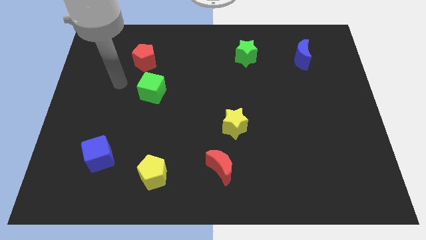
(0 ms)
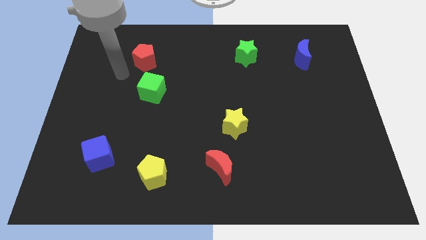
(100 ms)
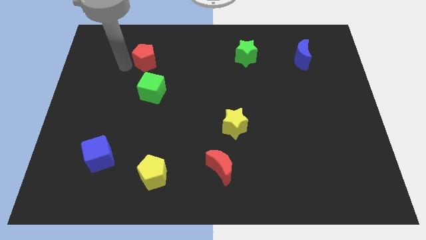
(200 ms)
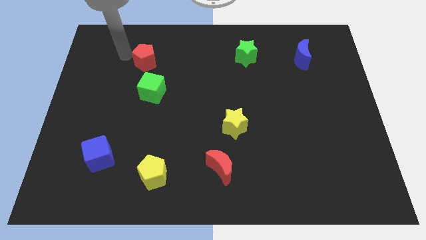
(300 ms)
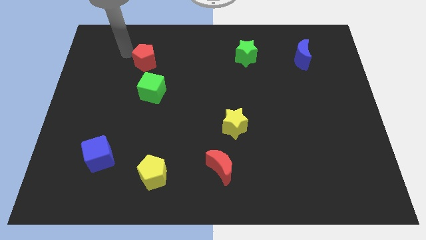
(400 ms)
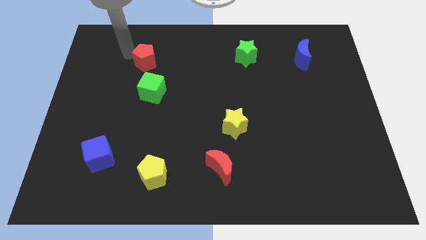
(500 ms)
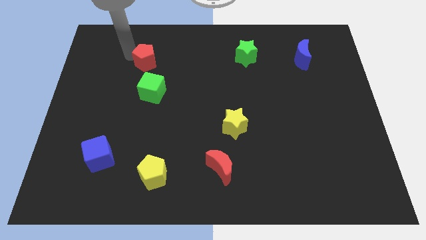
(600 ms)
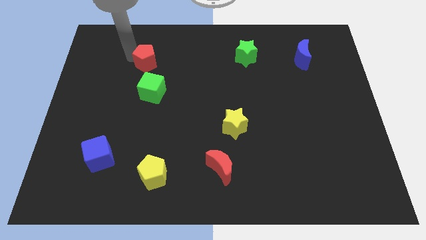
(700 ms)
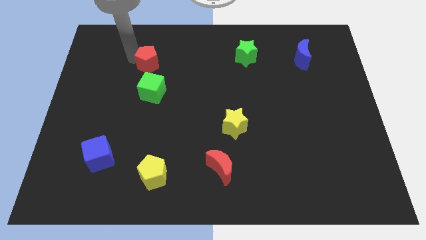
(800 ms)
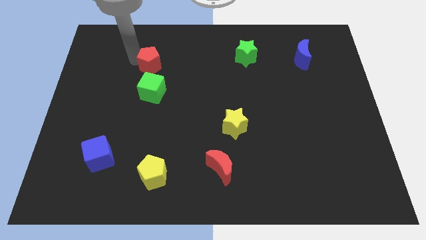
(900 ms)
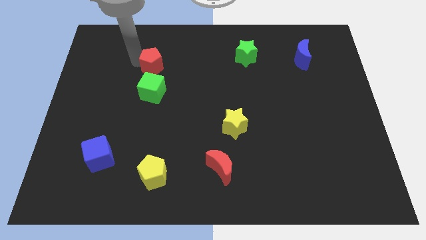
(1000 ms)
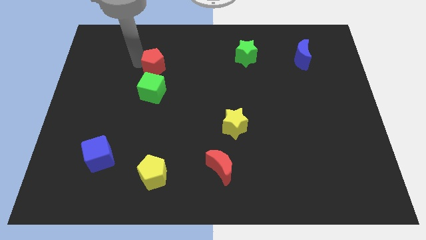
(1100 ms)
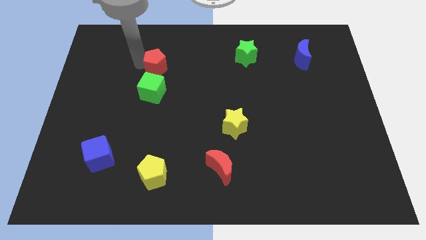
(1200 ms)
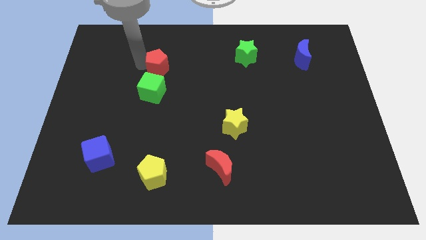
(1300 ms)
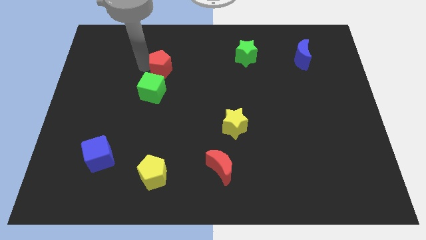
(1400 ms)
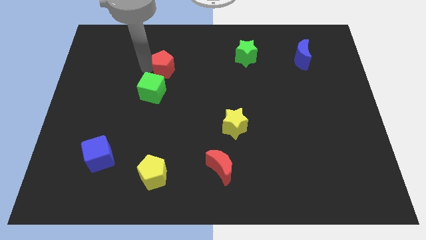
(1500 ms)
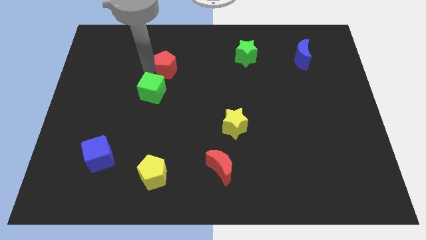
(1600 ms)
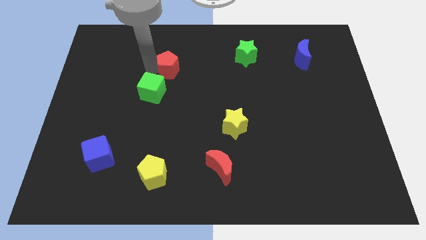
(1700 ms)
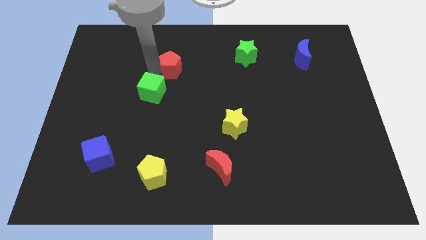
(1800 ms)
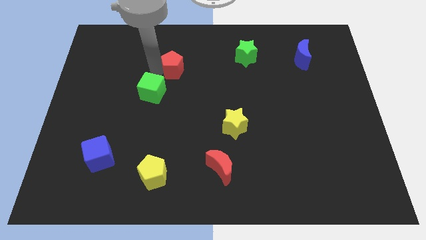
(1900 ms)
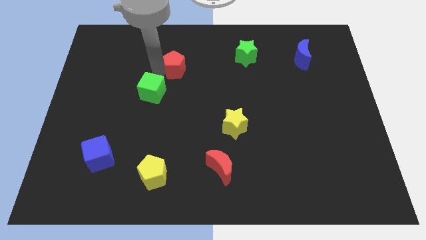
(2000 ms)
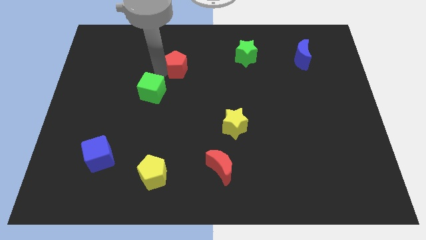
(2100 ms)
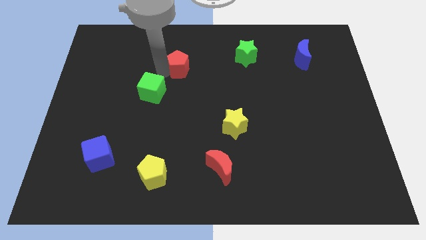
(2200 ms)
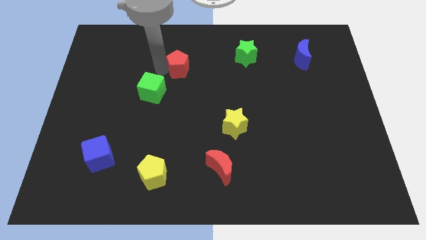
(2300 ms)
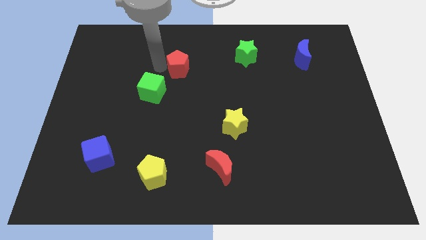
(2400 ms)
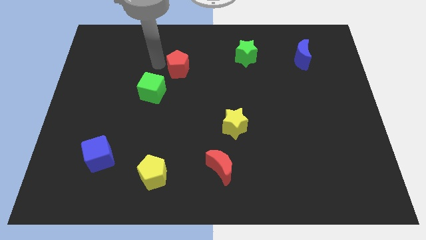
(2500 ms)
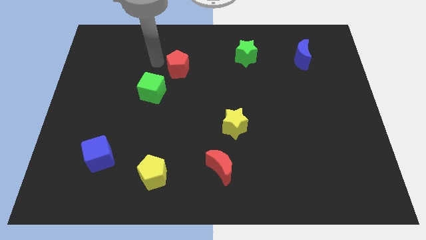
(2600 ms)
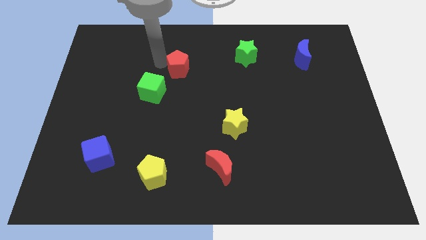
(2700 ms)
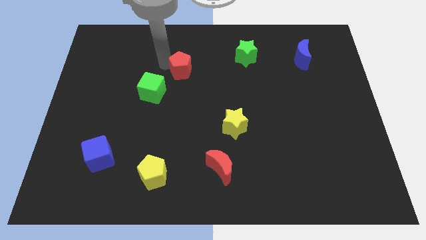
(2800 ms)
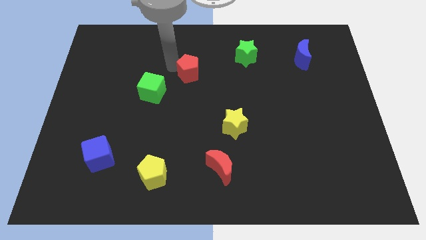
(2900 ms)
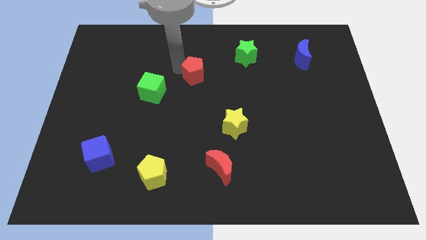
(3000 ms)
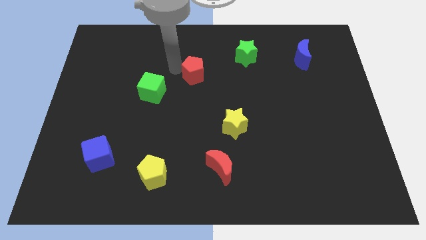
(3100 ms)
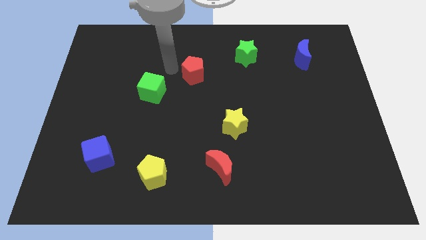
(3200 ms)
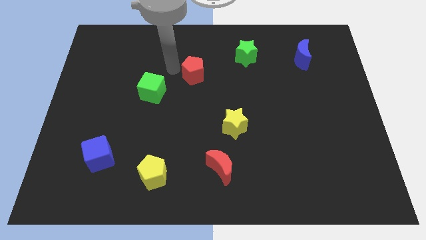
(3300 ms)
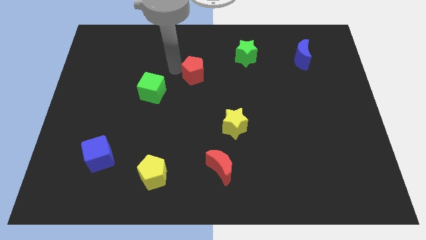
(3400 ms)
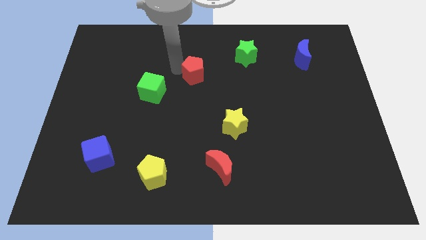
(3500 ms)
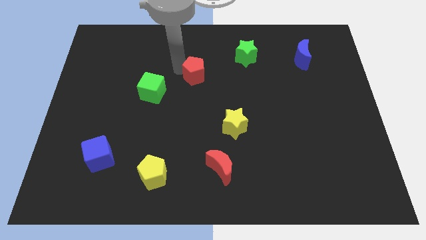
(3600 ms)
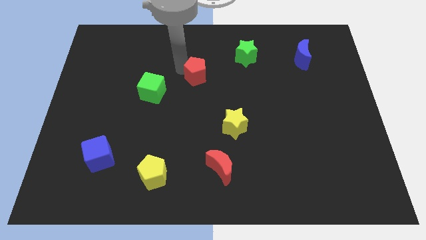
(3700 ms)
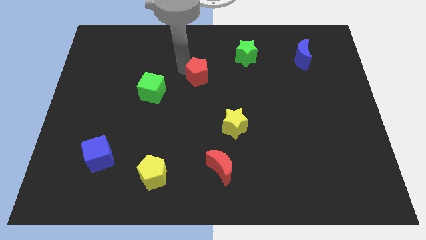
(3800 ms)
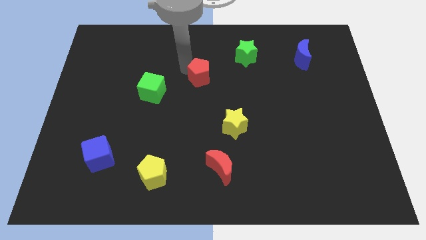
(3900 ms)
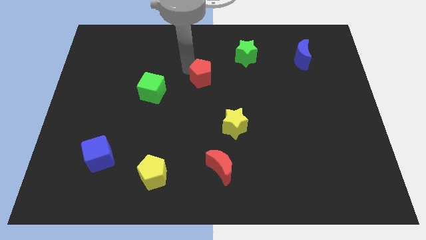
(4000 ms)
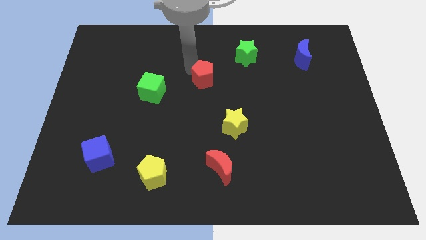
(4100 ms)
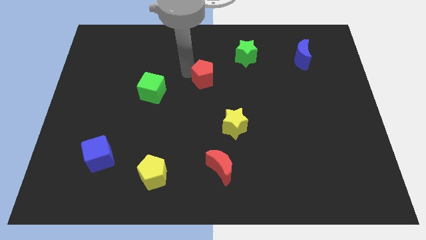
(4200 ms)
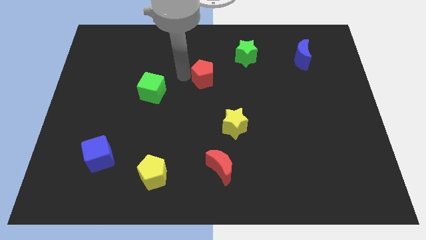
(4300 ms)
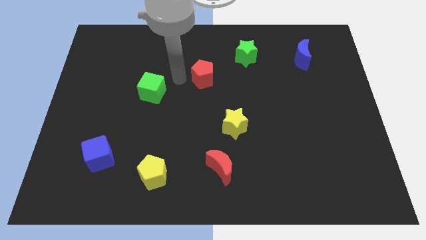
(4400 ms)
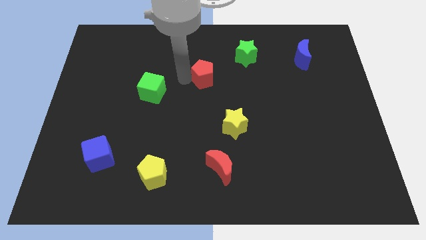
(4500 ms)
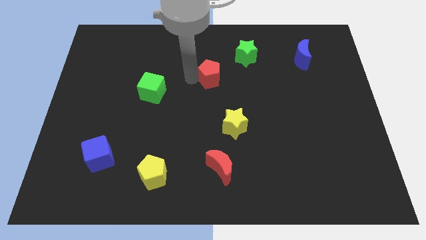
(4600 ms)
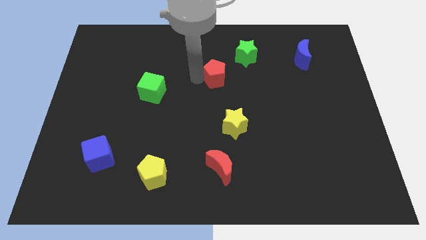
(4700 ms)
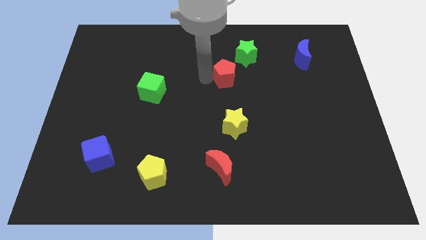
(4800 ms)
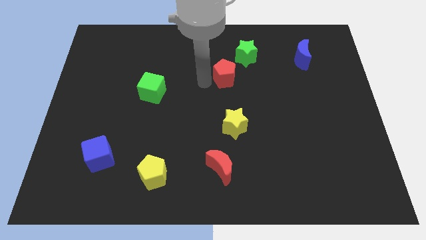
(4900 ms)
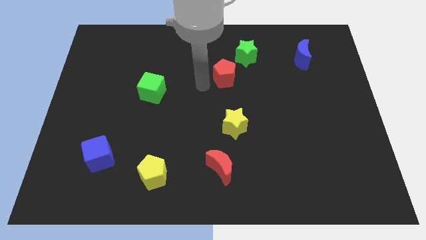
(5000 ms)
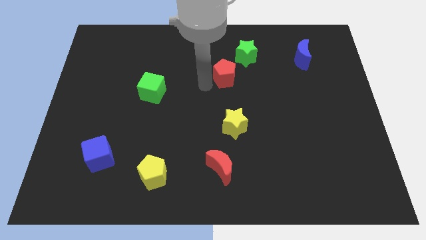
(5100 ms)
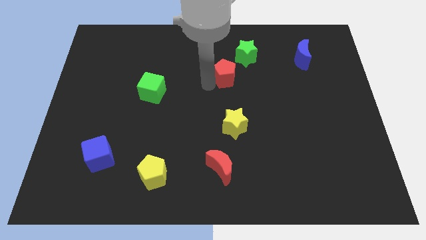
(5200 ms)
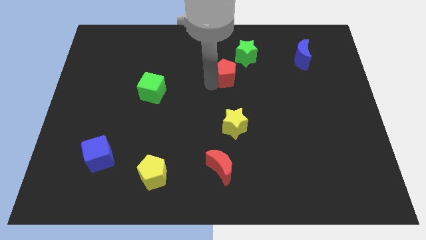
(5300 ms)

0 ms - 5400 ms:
move the red pentagon right

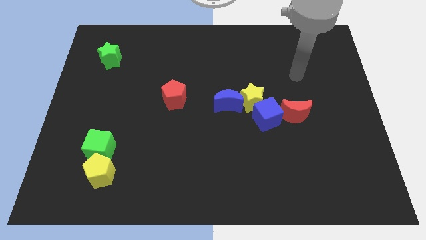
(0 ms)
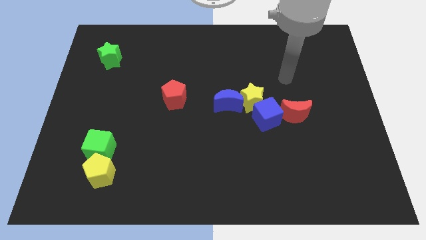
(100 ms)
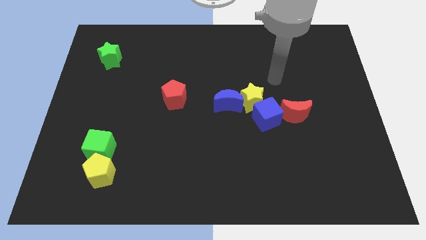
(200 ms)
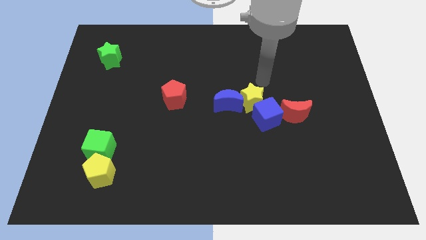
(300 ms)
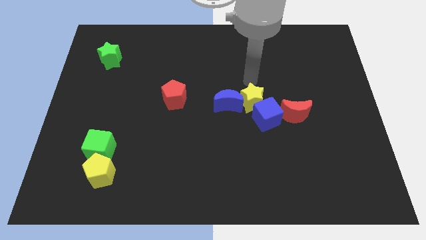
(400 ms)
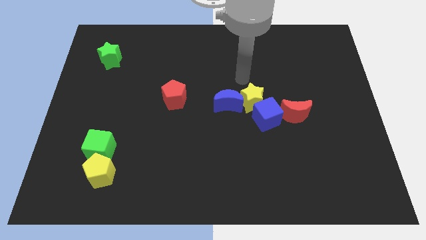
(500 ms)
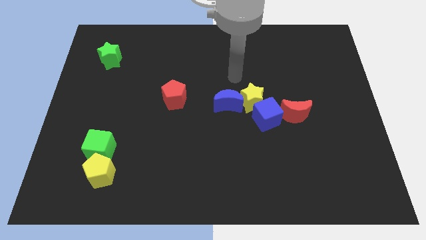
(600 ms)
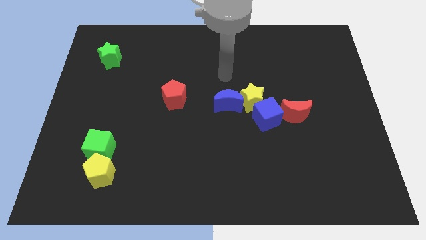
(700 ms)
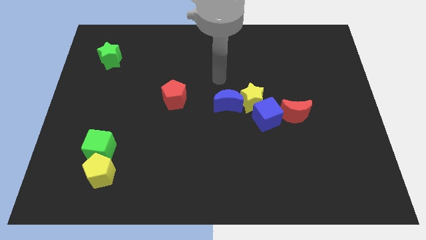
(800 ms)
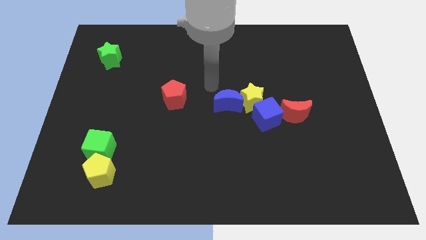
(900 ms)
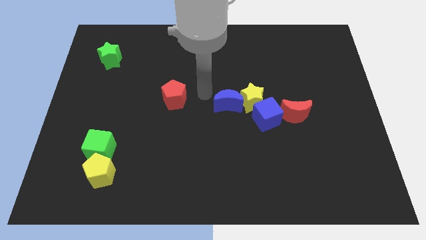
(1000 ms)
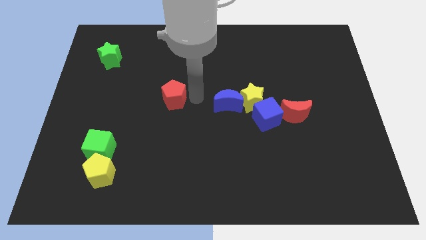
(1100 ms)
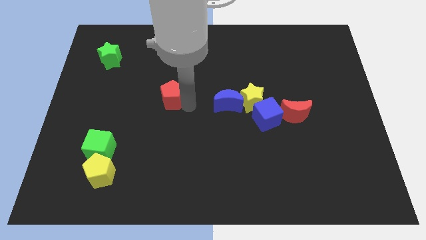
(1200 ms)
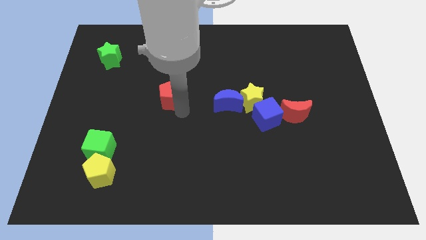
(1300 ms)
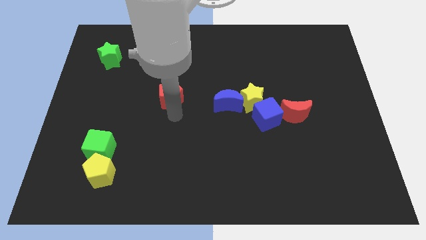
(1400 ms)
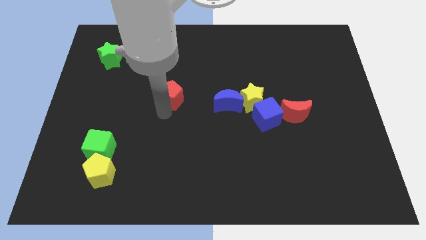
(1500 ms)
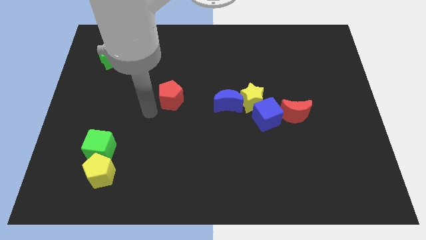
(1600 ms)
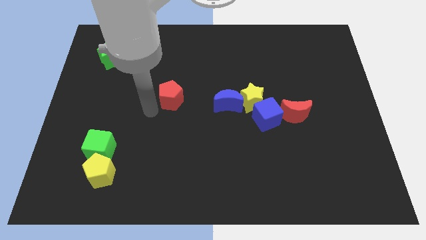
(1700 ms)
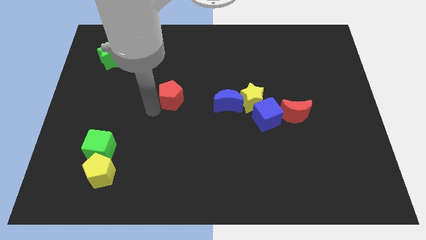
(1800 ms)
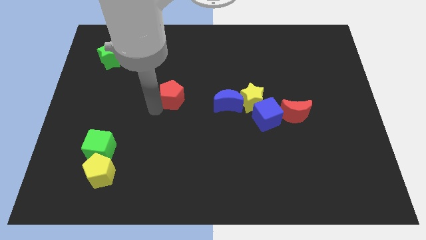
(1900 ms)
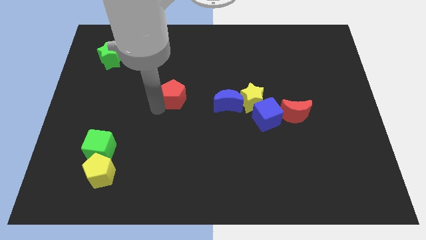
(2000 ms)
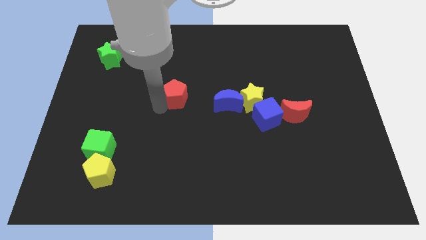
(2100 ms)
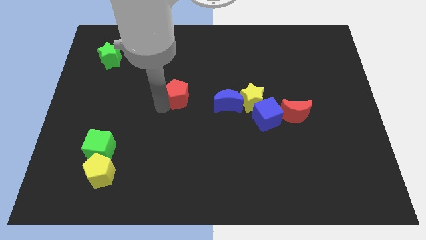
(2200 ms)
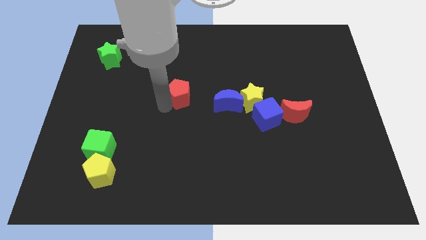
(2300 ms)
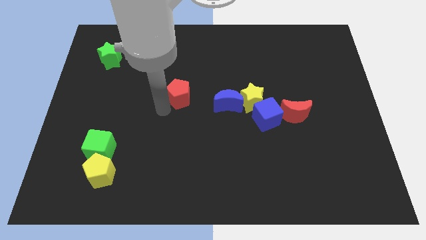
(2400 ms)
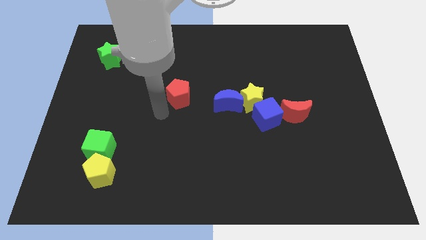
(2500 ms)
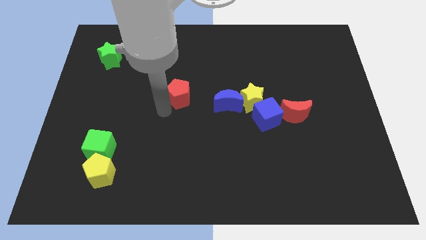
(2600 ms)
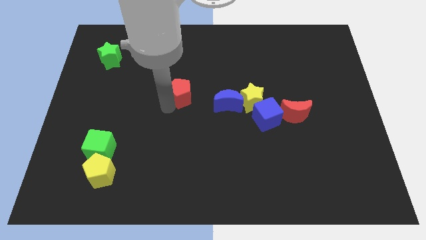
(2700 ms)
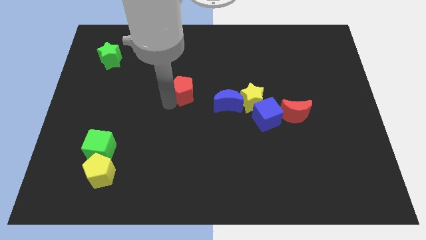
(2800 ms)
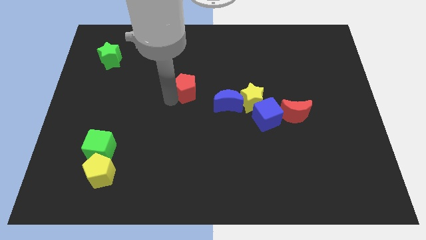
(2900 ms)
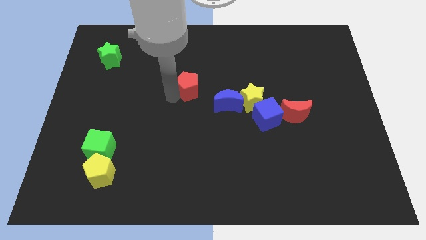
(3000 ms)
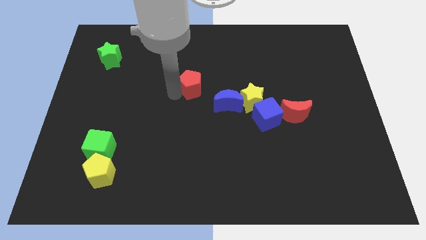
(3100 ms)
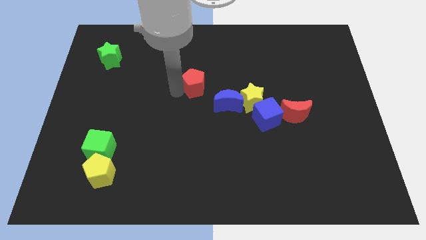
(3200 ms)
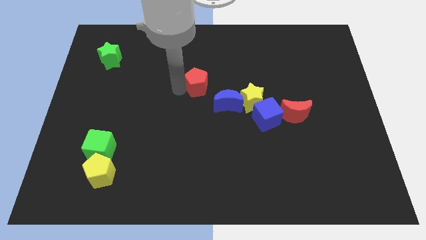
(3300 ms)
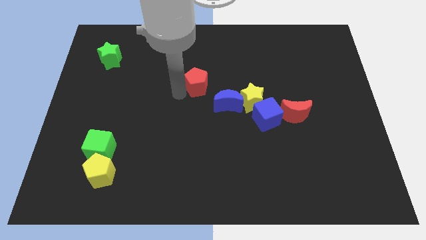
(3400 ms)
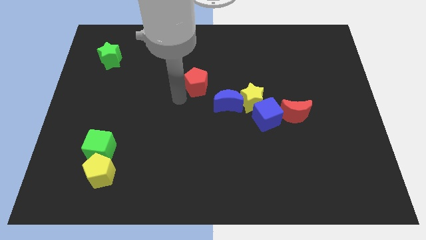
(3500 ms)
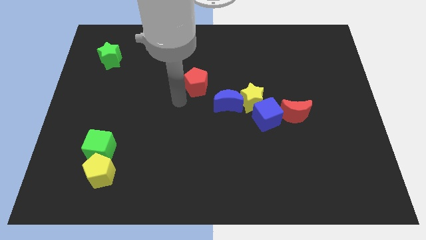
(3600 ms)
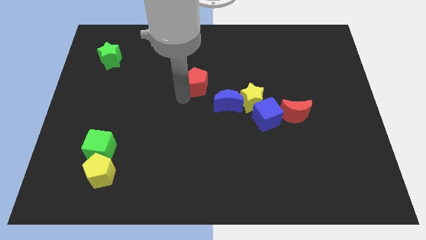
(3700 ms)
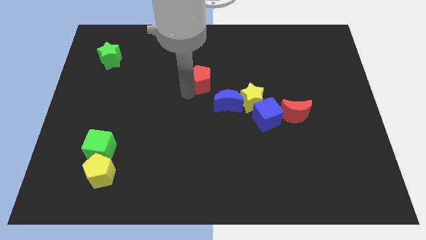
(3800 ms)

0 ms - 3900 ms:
slightly move the red pentagon up and right diagonally
